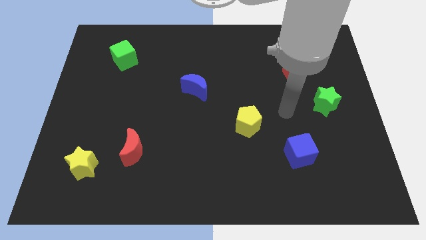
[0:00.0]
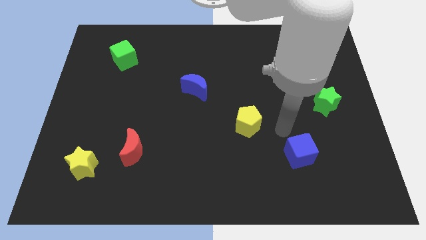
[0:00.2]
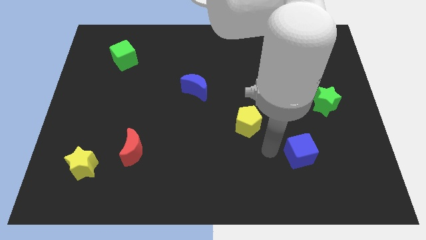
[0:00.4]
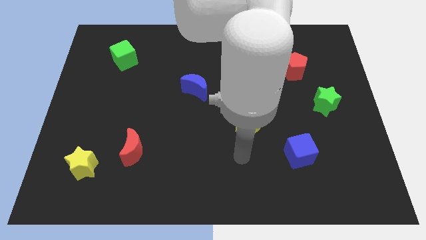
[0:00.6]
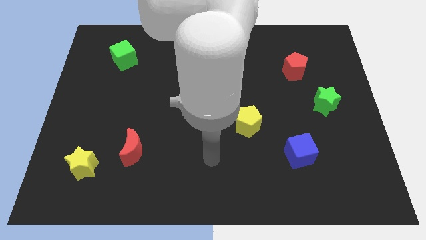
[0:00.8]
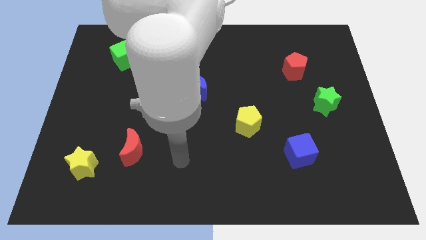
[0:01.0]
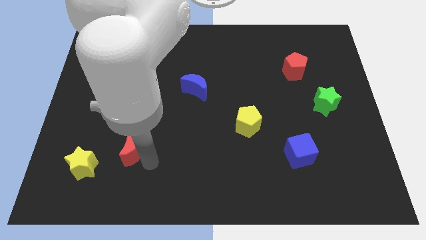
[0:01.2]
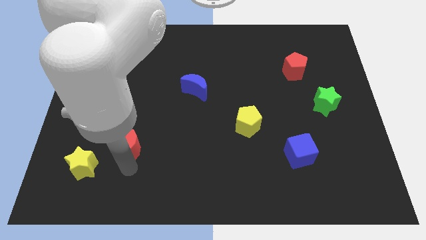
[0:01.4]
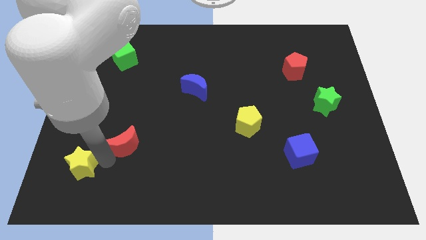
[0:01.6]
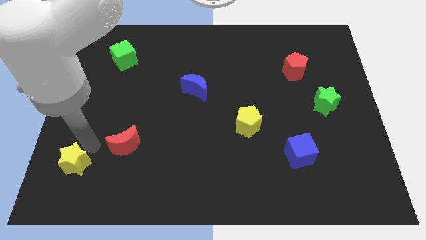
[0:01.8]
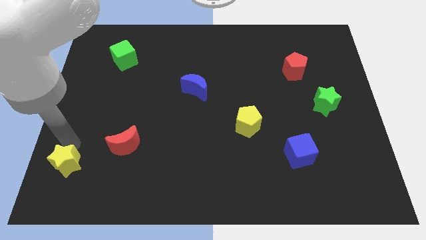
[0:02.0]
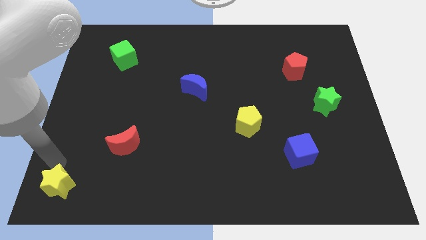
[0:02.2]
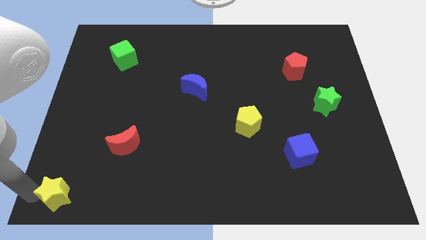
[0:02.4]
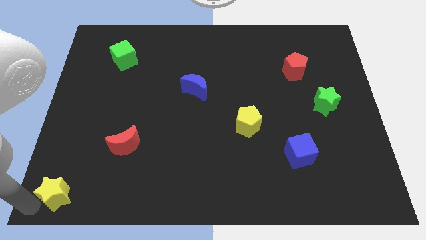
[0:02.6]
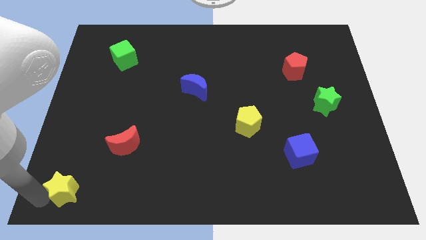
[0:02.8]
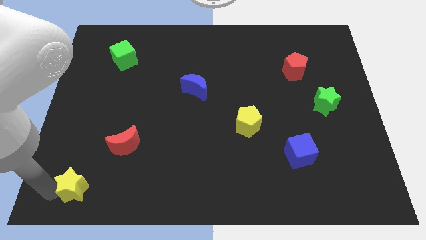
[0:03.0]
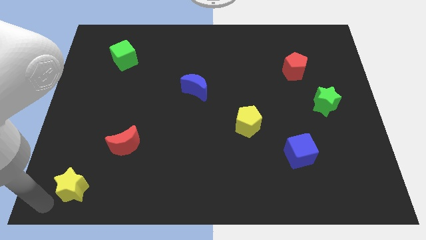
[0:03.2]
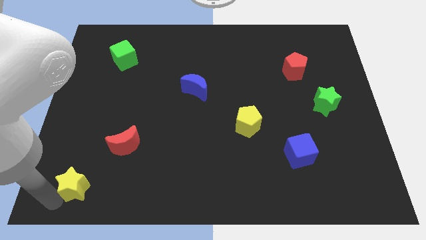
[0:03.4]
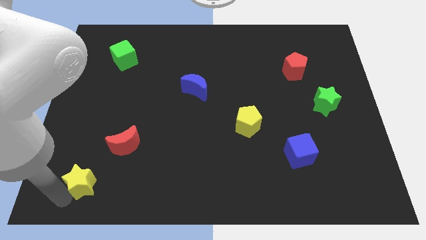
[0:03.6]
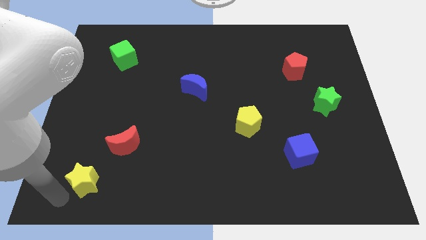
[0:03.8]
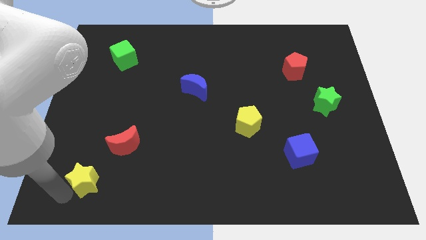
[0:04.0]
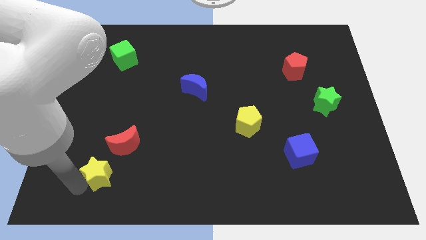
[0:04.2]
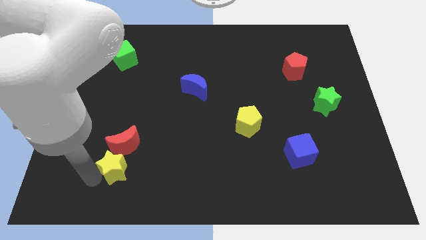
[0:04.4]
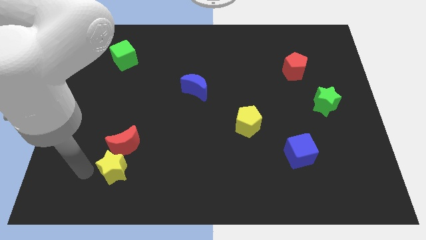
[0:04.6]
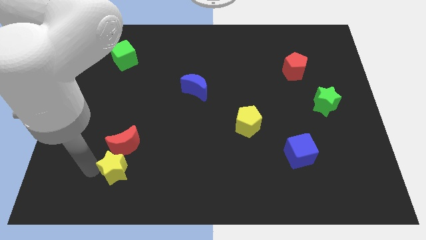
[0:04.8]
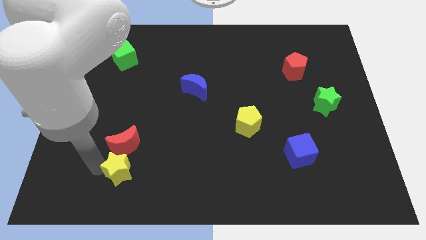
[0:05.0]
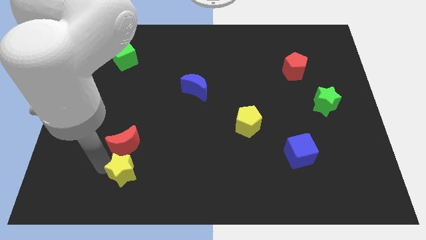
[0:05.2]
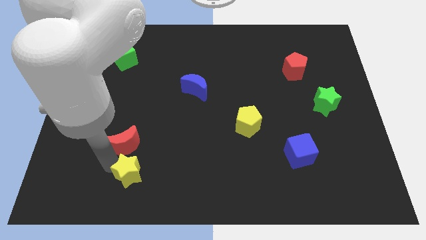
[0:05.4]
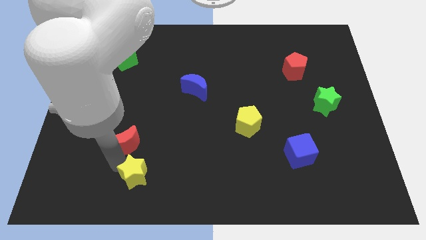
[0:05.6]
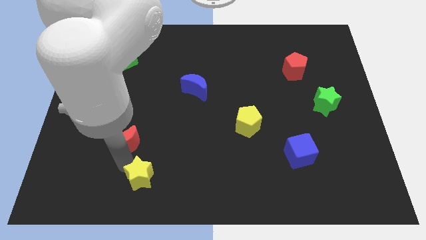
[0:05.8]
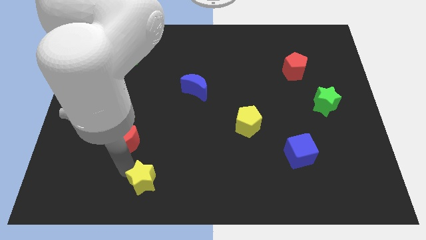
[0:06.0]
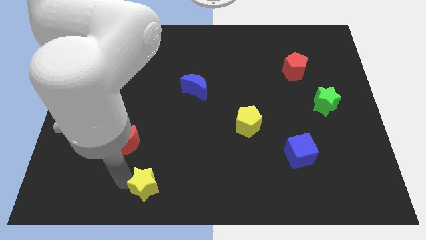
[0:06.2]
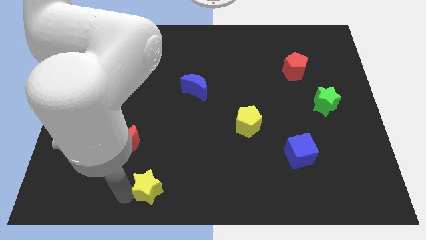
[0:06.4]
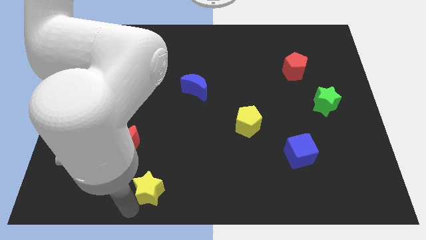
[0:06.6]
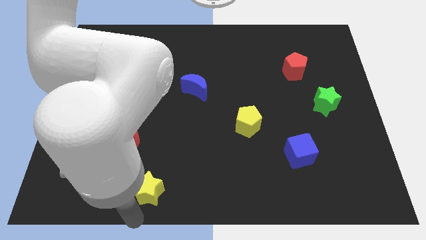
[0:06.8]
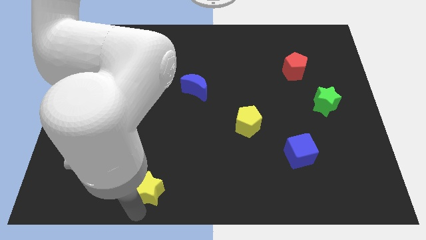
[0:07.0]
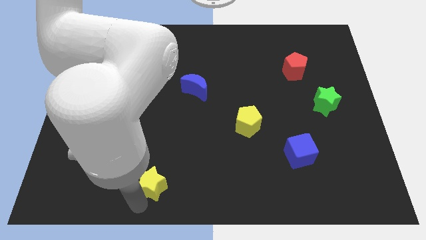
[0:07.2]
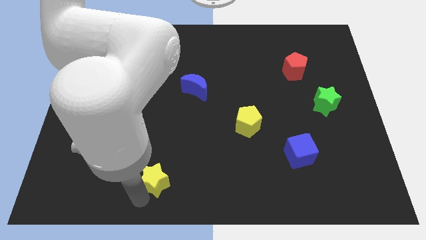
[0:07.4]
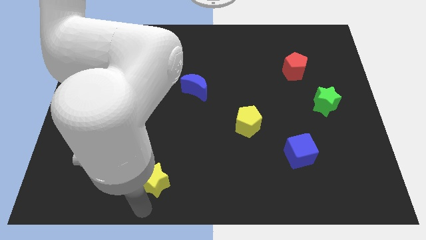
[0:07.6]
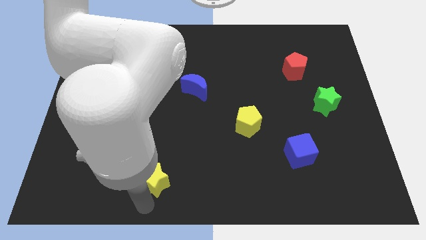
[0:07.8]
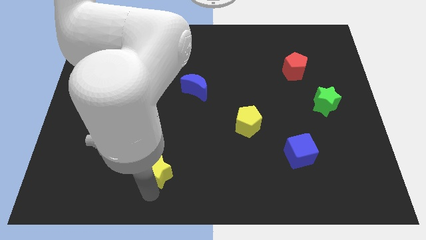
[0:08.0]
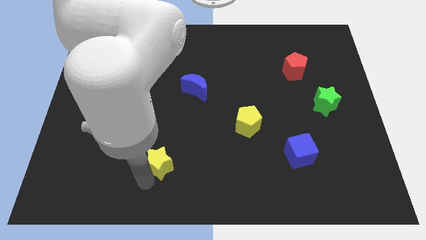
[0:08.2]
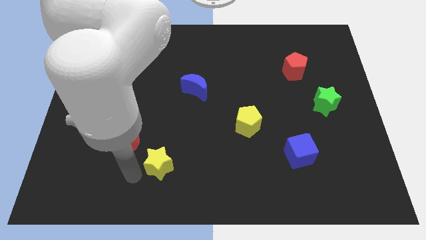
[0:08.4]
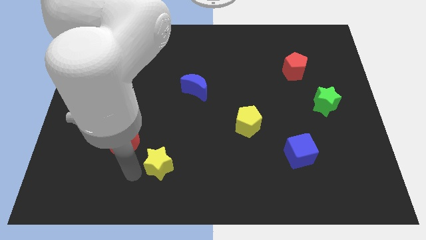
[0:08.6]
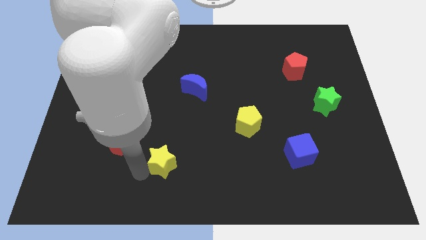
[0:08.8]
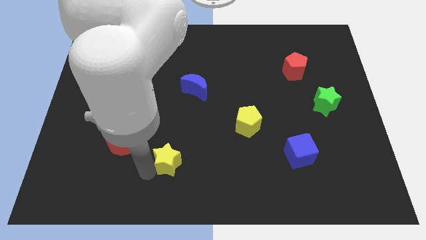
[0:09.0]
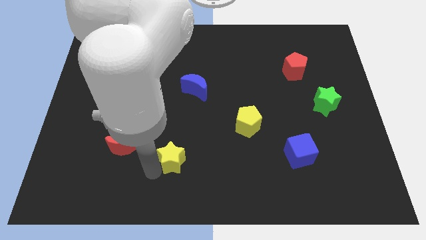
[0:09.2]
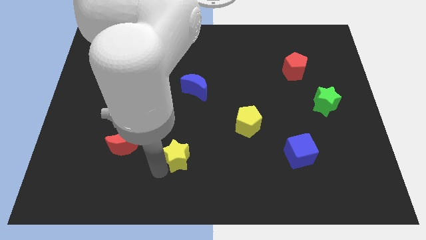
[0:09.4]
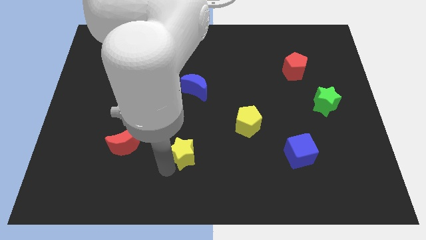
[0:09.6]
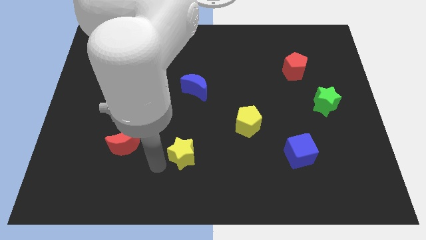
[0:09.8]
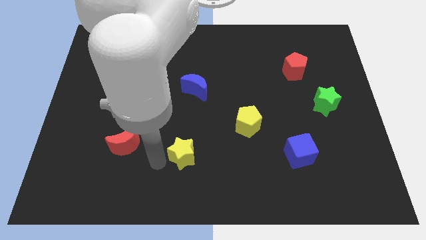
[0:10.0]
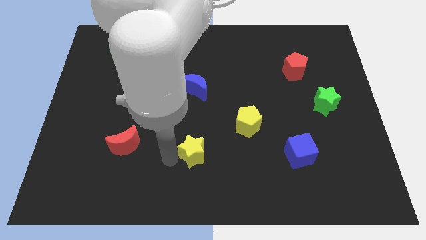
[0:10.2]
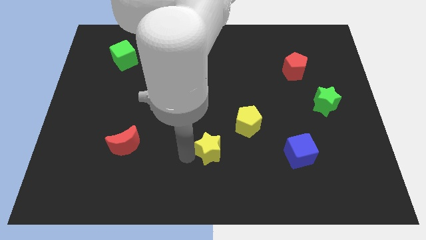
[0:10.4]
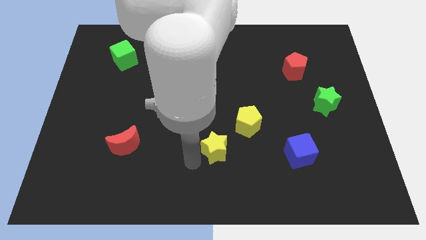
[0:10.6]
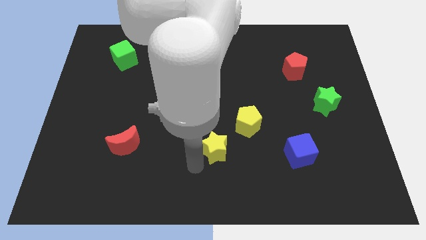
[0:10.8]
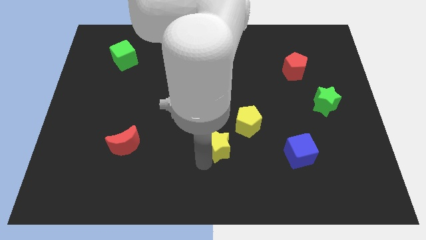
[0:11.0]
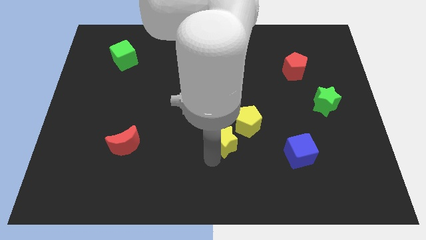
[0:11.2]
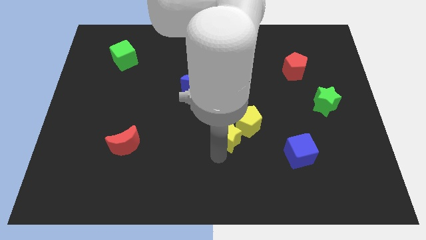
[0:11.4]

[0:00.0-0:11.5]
push the yellow star next to the yellow pentagon

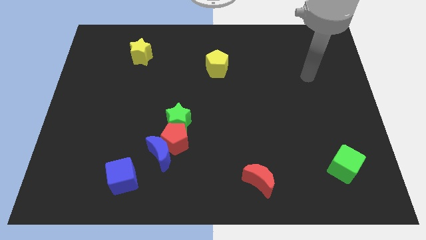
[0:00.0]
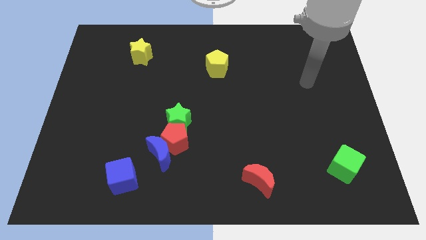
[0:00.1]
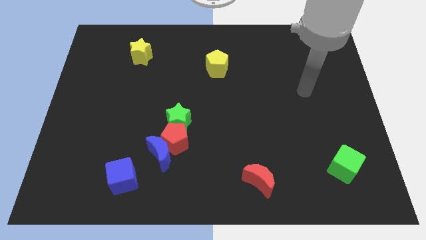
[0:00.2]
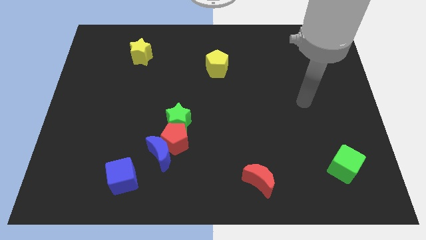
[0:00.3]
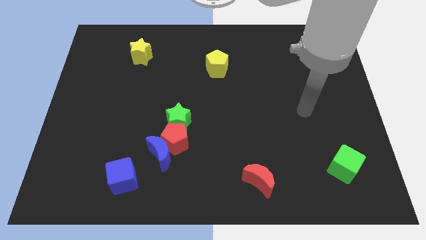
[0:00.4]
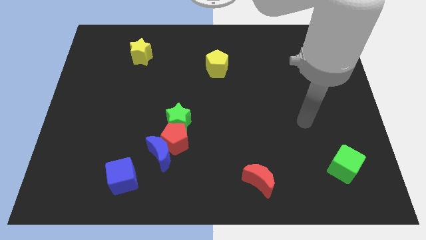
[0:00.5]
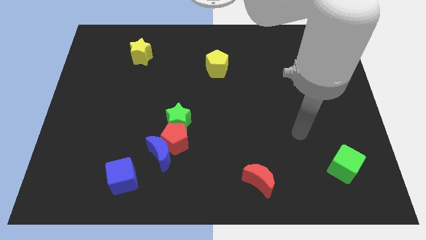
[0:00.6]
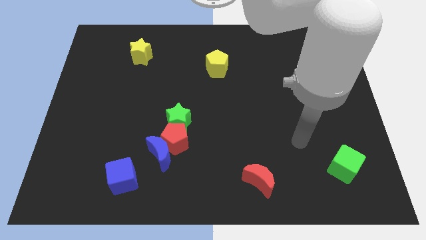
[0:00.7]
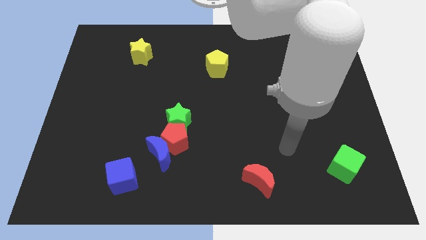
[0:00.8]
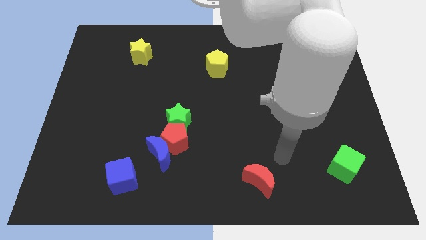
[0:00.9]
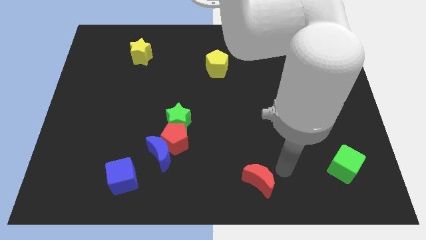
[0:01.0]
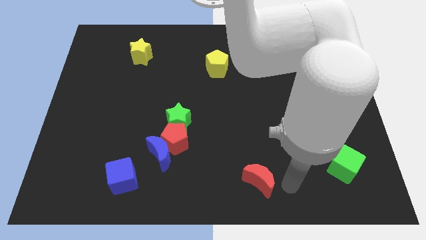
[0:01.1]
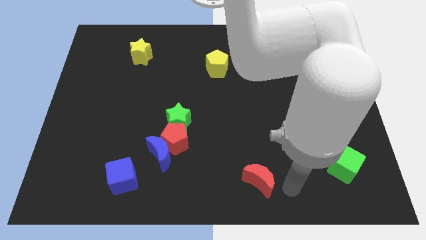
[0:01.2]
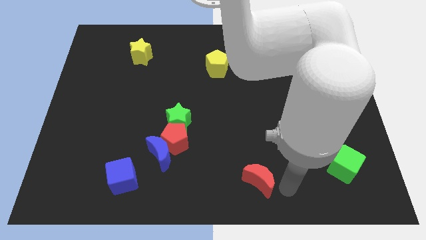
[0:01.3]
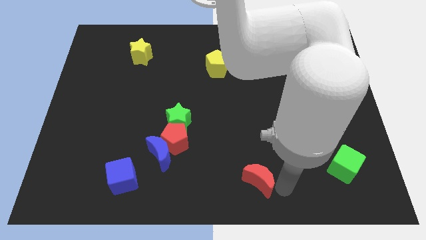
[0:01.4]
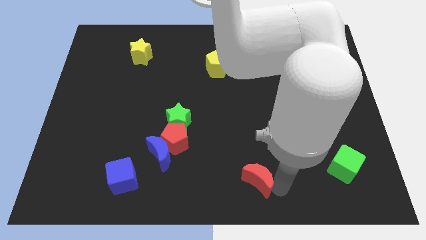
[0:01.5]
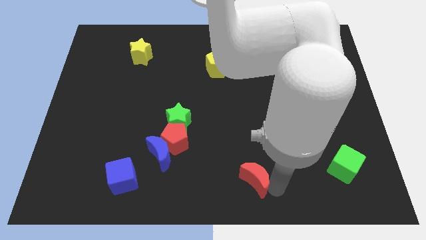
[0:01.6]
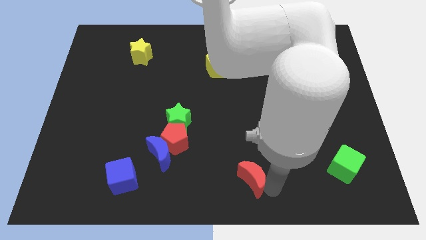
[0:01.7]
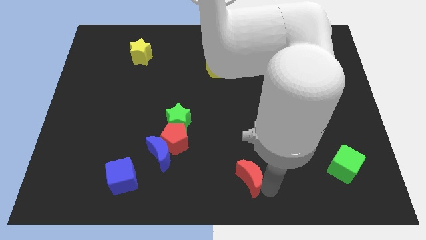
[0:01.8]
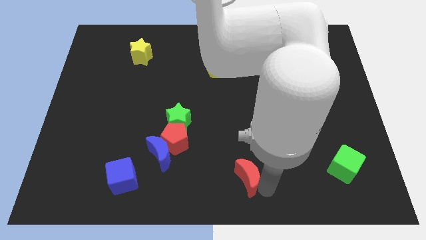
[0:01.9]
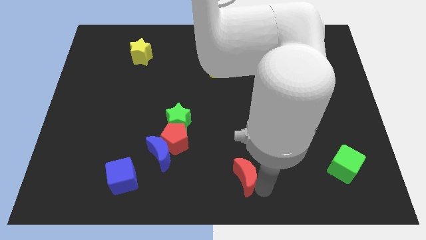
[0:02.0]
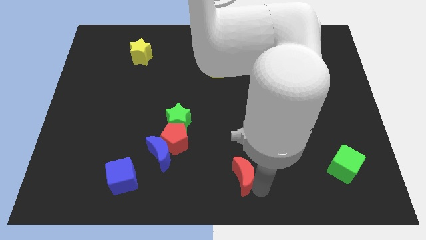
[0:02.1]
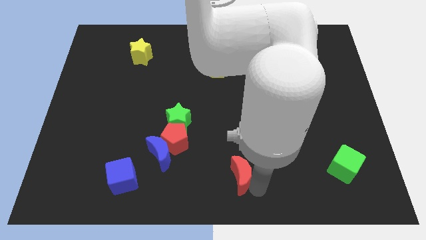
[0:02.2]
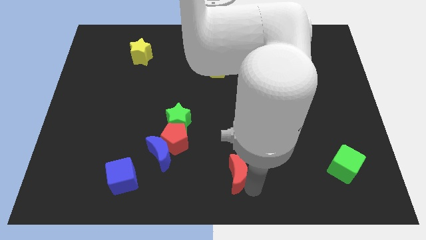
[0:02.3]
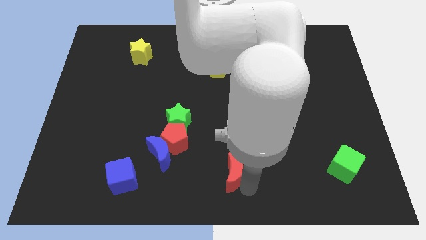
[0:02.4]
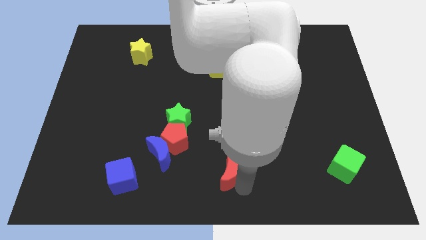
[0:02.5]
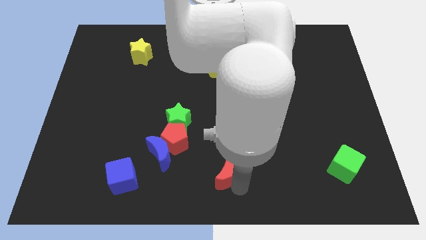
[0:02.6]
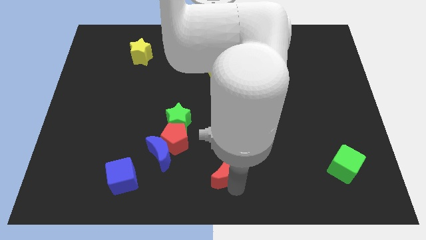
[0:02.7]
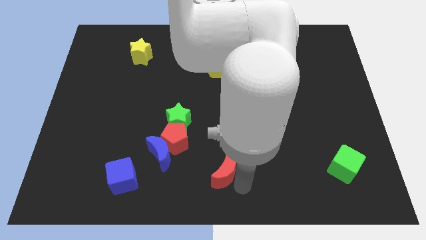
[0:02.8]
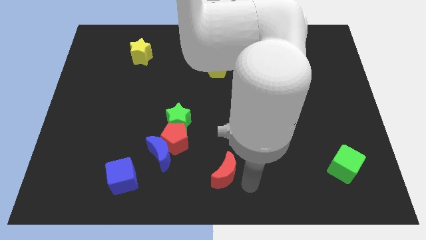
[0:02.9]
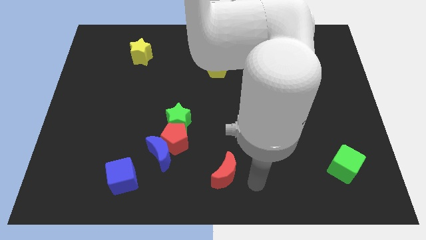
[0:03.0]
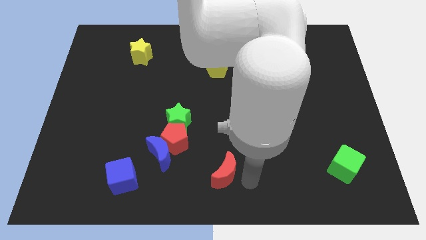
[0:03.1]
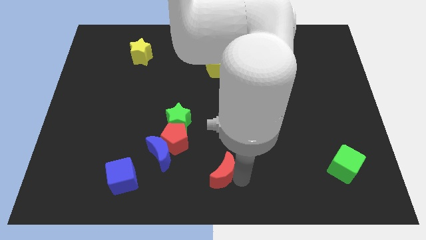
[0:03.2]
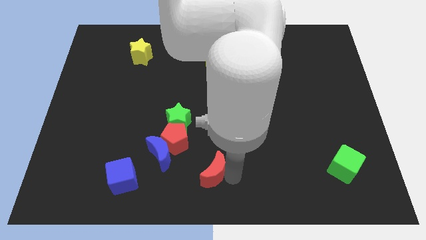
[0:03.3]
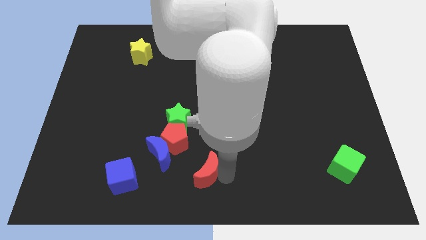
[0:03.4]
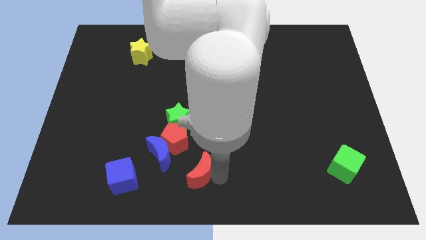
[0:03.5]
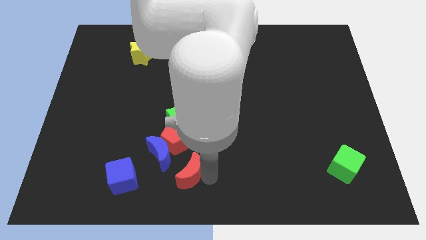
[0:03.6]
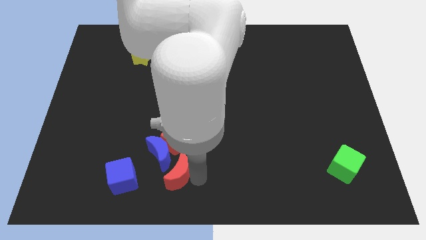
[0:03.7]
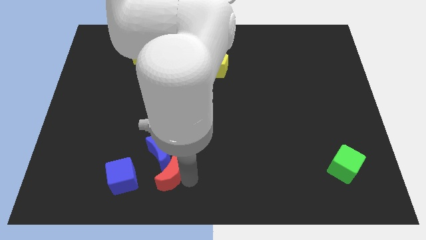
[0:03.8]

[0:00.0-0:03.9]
push the red moon towards the blue moon
